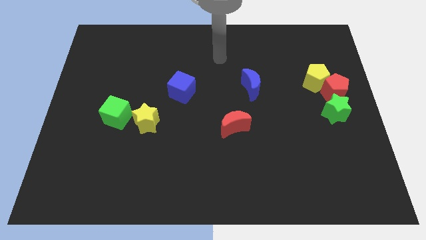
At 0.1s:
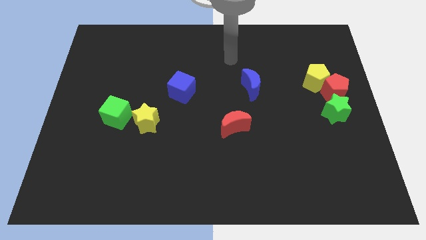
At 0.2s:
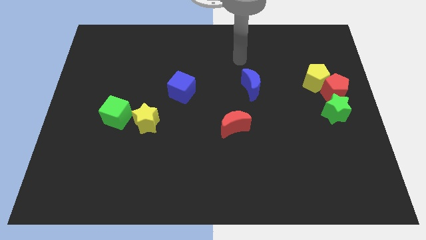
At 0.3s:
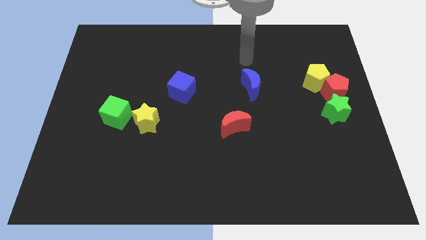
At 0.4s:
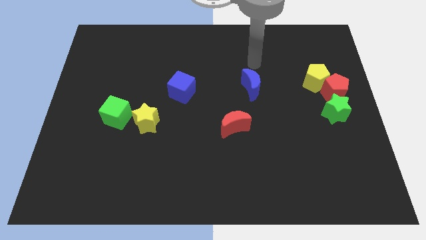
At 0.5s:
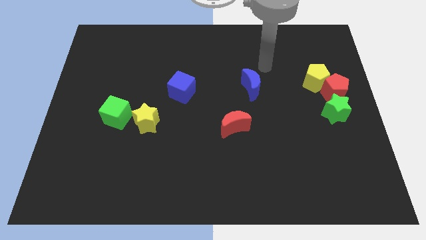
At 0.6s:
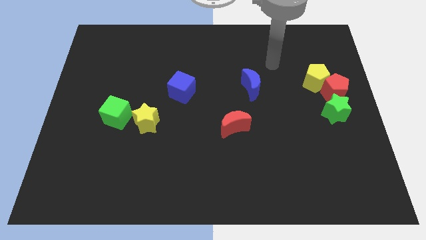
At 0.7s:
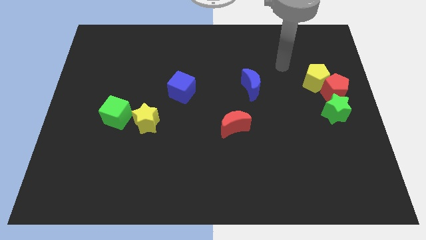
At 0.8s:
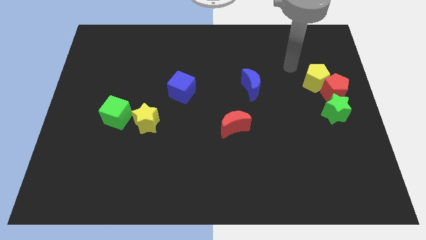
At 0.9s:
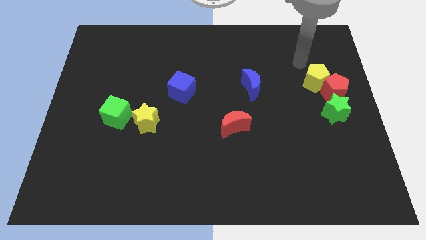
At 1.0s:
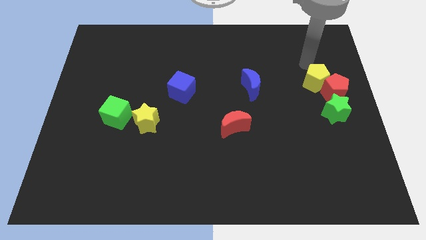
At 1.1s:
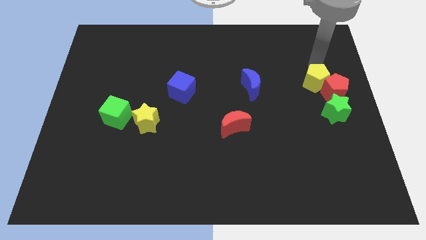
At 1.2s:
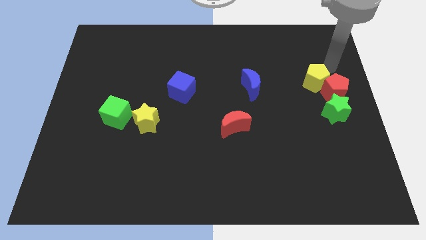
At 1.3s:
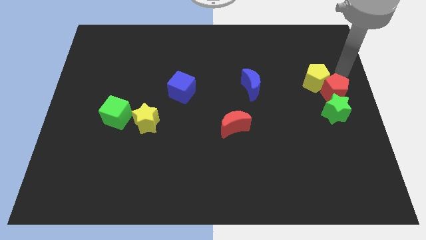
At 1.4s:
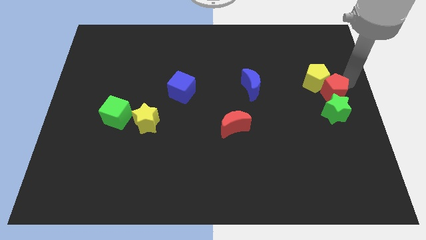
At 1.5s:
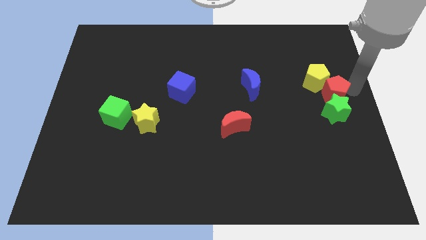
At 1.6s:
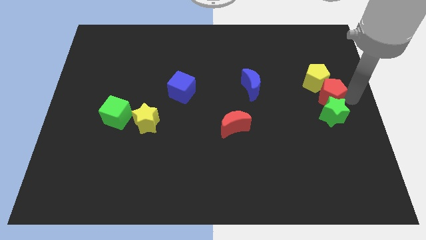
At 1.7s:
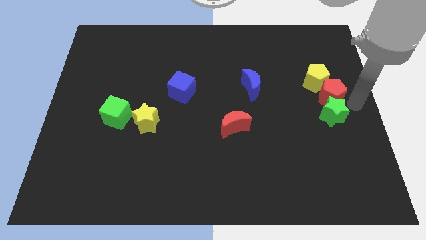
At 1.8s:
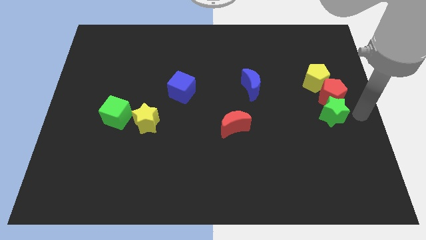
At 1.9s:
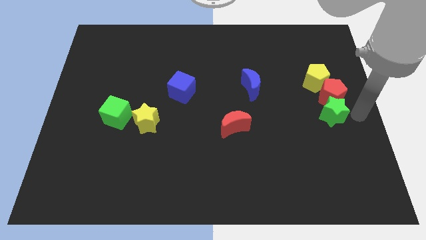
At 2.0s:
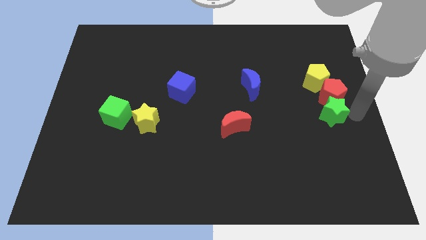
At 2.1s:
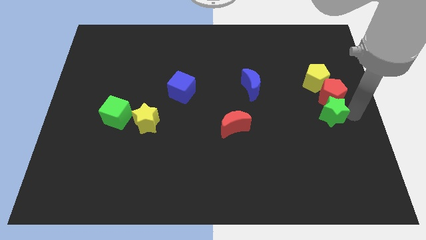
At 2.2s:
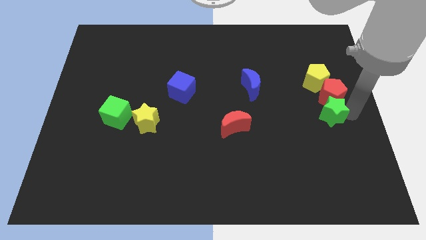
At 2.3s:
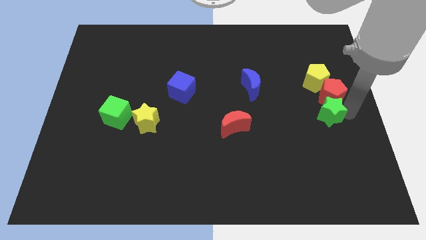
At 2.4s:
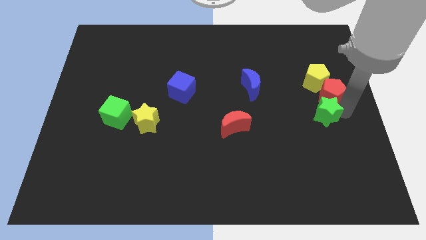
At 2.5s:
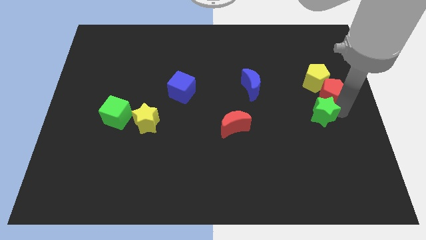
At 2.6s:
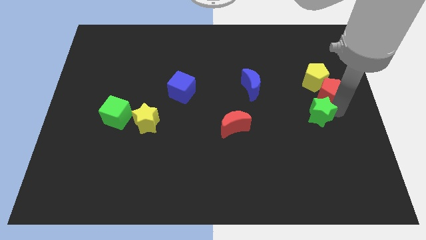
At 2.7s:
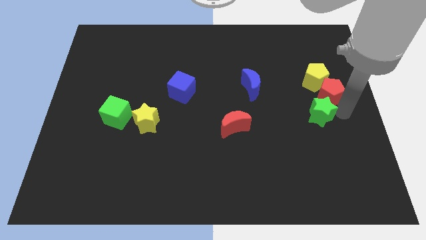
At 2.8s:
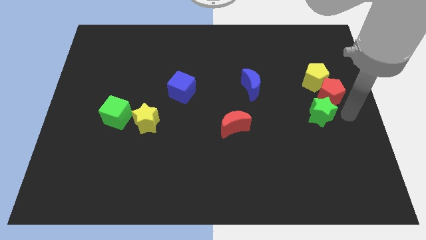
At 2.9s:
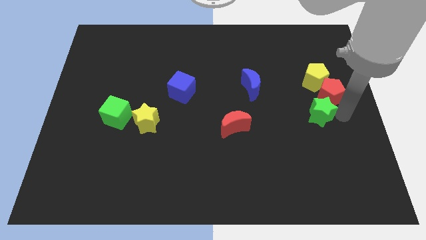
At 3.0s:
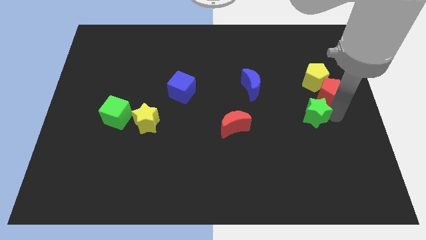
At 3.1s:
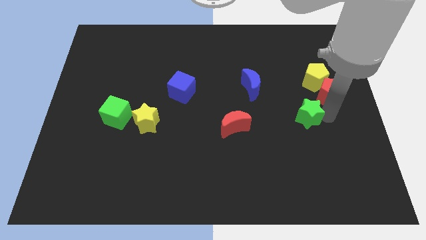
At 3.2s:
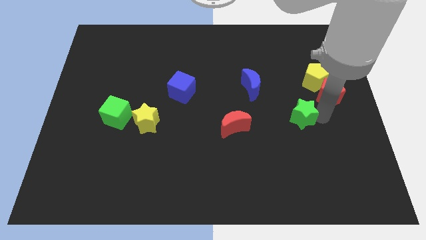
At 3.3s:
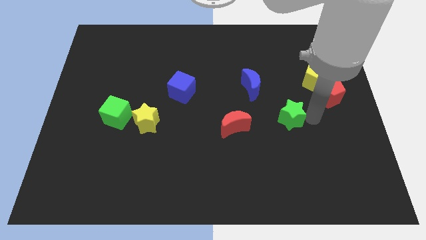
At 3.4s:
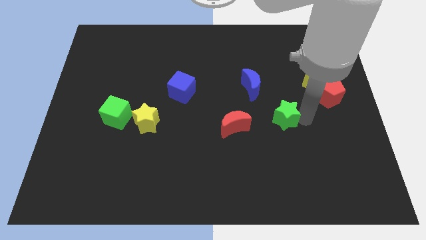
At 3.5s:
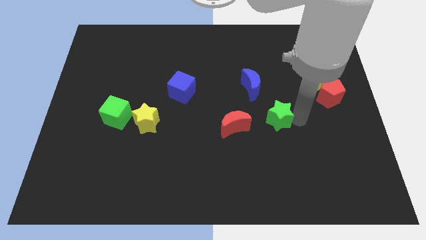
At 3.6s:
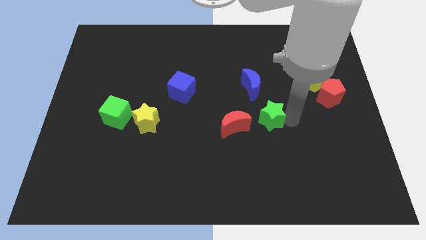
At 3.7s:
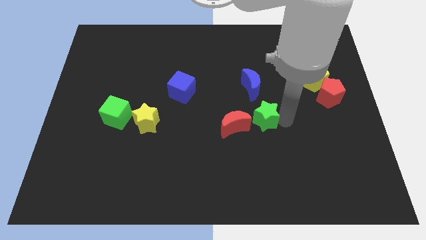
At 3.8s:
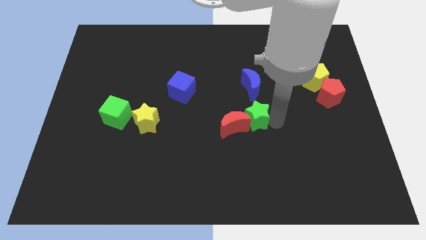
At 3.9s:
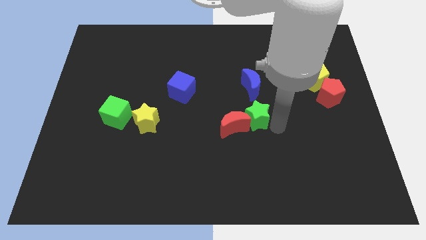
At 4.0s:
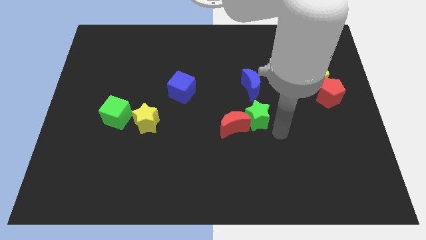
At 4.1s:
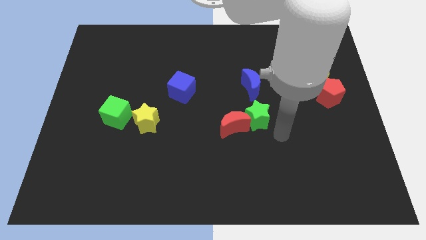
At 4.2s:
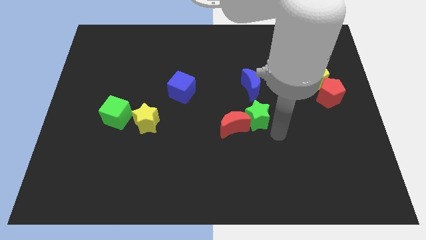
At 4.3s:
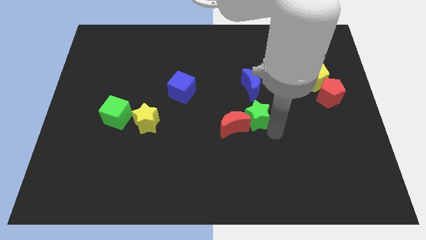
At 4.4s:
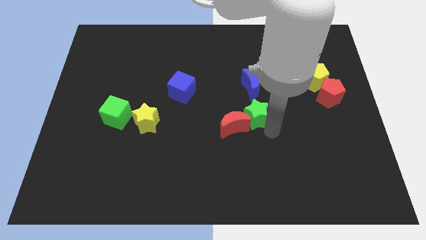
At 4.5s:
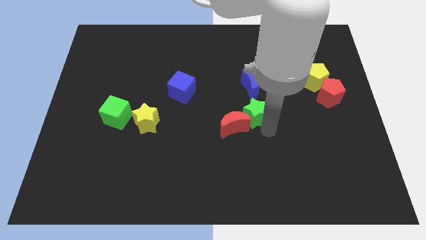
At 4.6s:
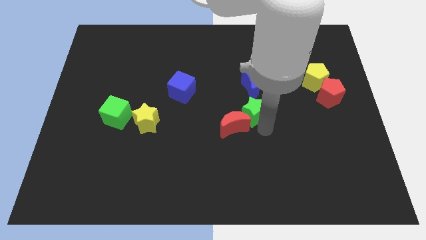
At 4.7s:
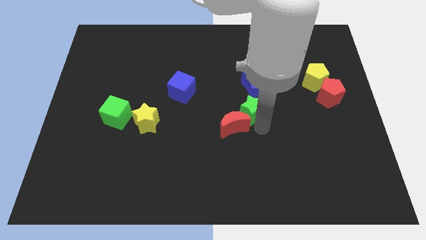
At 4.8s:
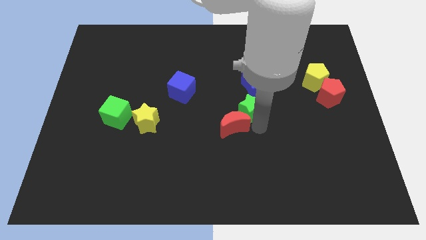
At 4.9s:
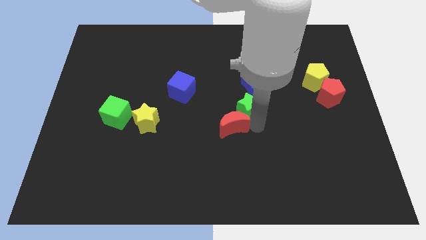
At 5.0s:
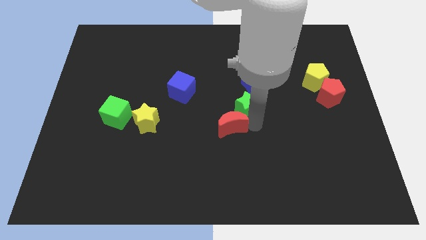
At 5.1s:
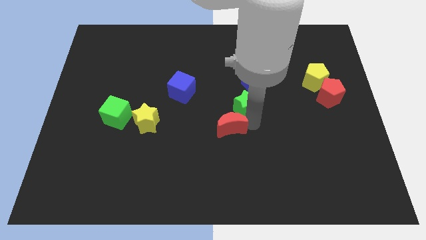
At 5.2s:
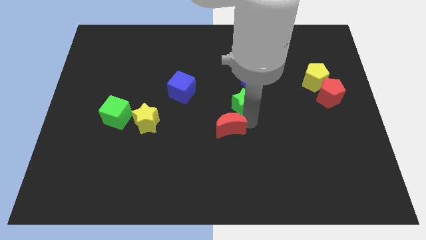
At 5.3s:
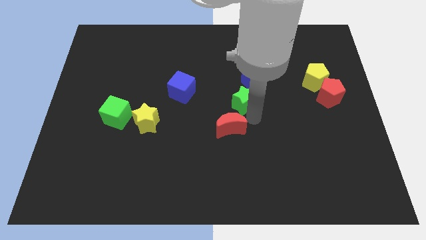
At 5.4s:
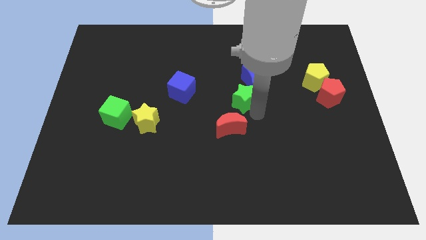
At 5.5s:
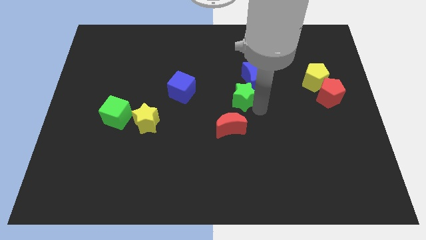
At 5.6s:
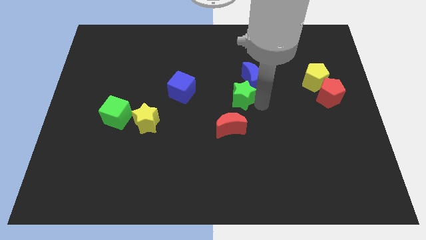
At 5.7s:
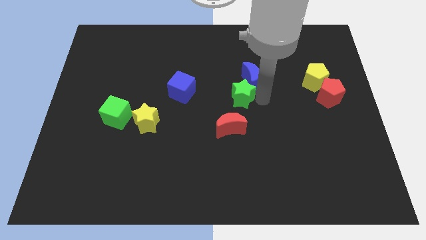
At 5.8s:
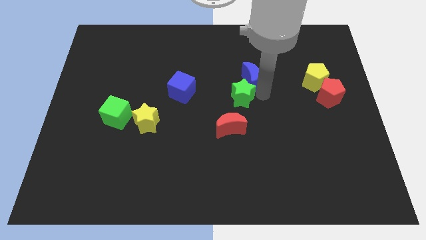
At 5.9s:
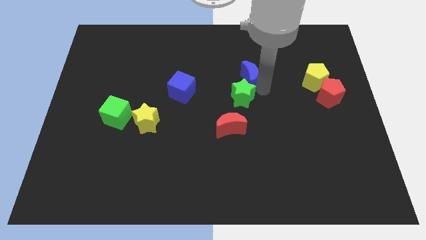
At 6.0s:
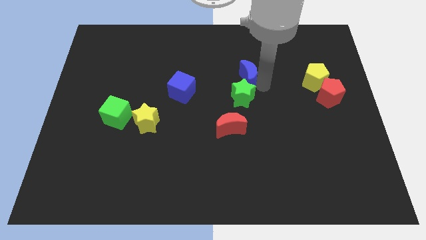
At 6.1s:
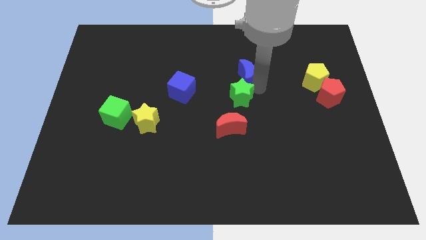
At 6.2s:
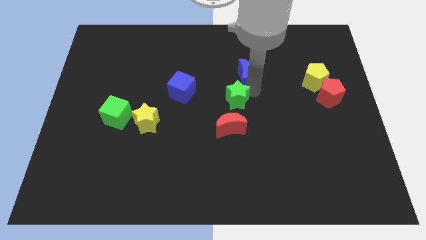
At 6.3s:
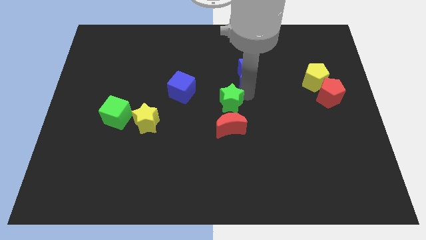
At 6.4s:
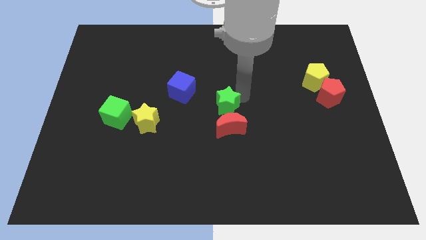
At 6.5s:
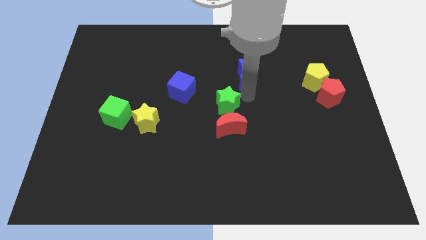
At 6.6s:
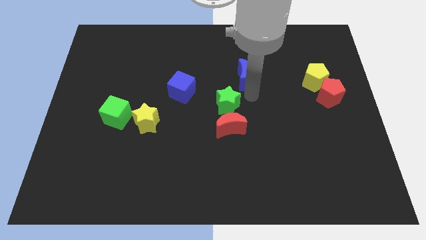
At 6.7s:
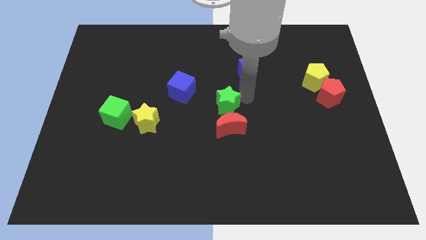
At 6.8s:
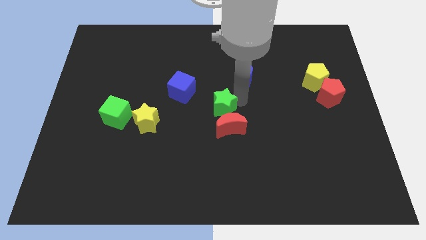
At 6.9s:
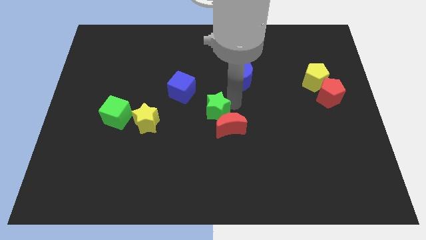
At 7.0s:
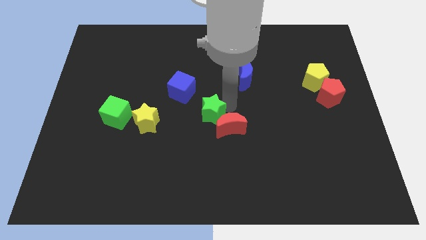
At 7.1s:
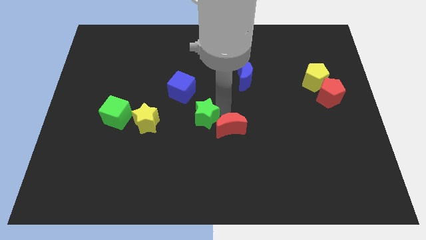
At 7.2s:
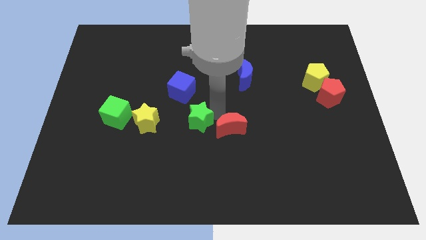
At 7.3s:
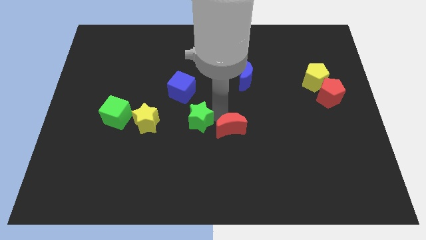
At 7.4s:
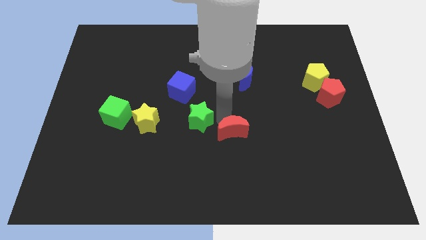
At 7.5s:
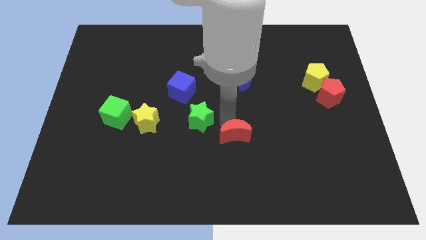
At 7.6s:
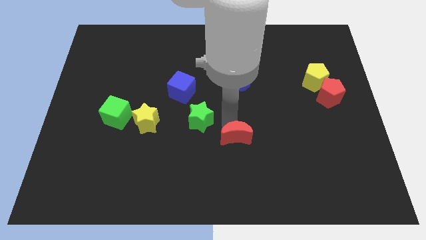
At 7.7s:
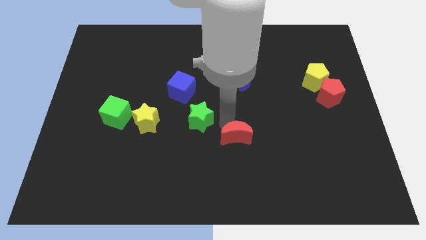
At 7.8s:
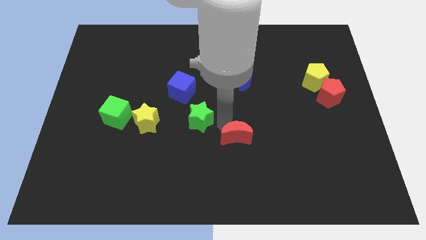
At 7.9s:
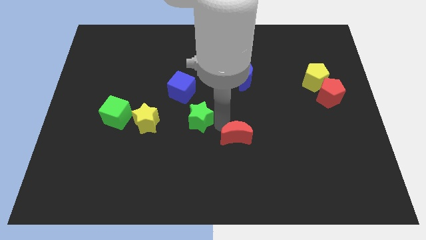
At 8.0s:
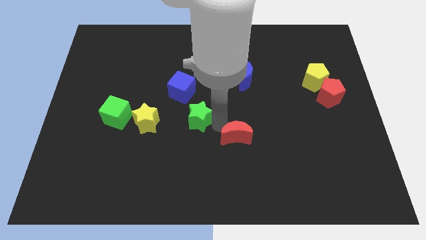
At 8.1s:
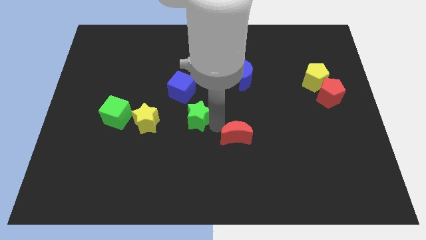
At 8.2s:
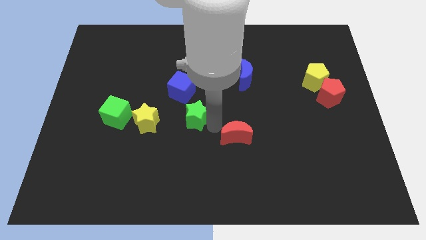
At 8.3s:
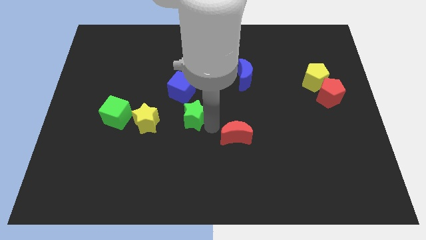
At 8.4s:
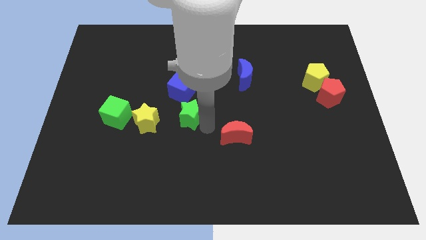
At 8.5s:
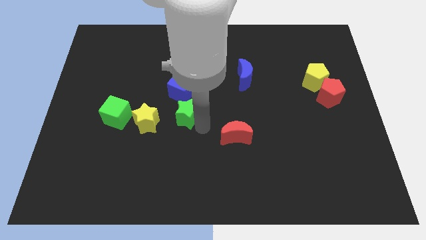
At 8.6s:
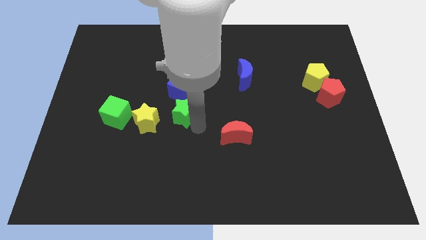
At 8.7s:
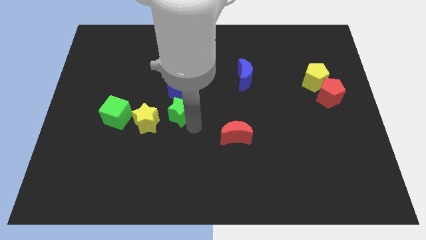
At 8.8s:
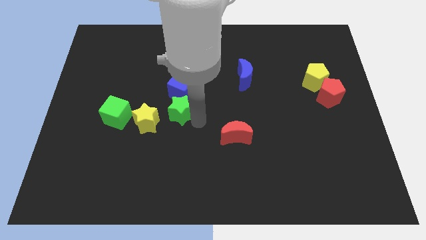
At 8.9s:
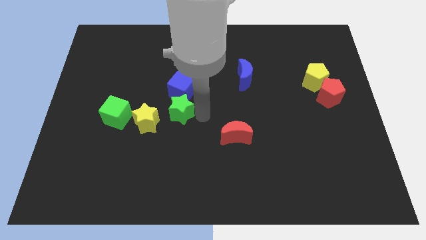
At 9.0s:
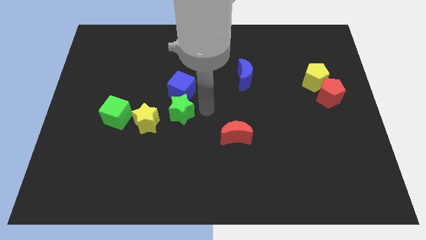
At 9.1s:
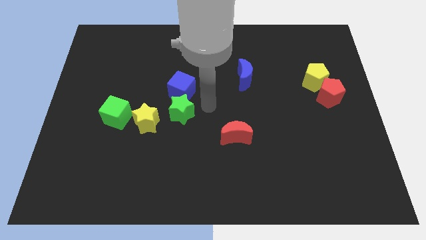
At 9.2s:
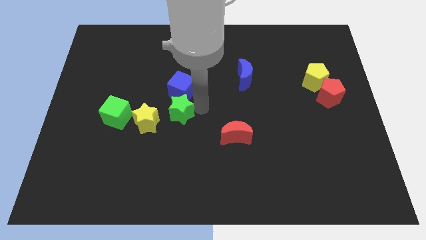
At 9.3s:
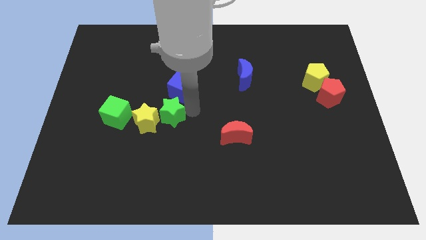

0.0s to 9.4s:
move the green star next to the yellow star
